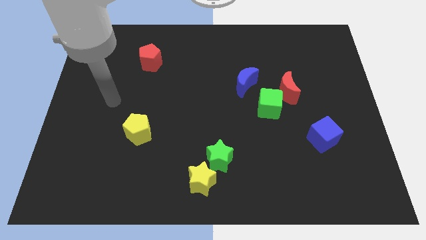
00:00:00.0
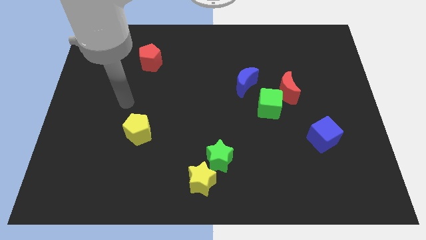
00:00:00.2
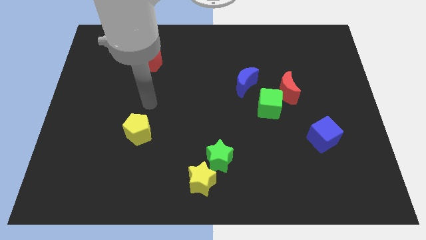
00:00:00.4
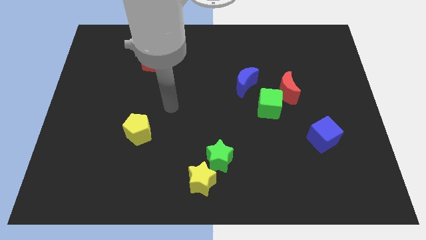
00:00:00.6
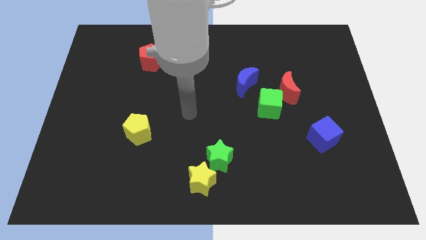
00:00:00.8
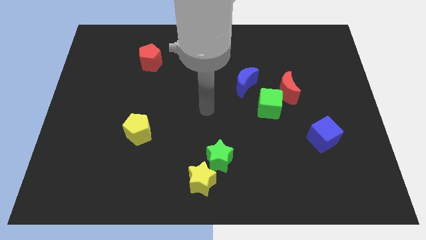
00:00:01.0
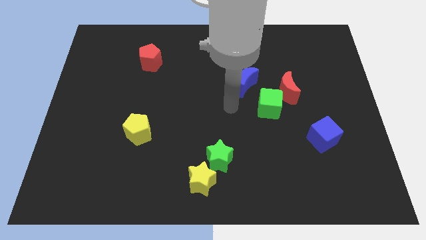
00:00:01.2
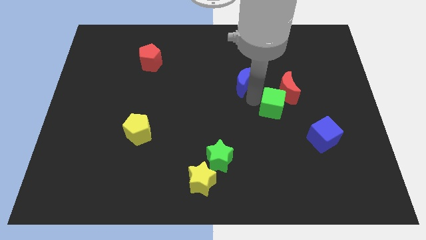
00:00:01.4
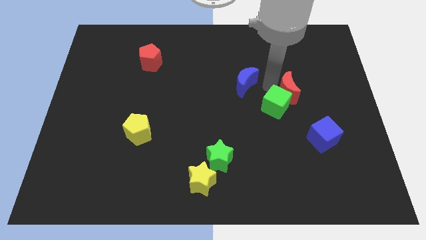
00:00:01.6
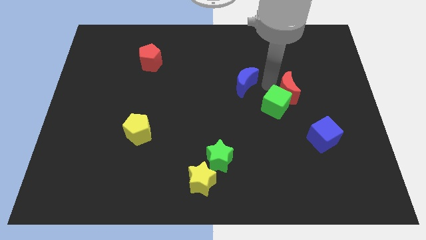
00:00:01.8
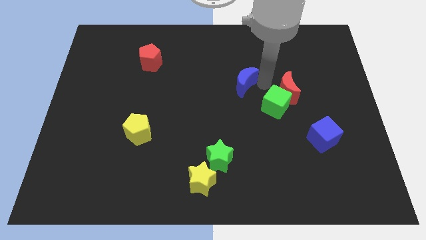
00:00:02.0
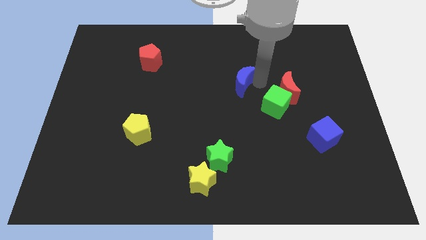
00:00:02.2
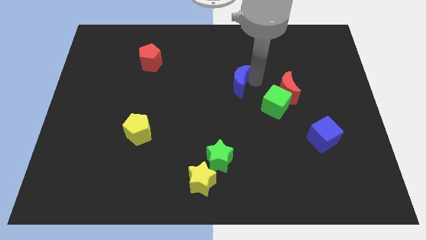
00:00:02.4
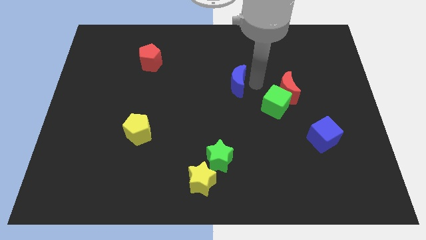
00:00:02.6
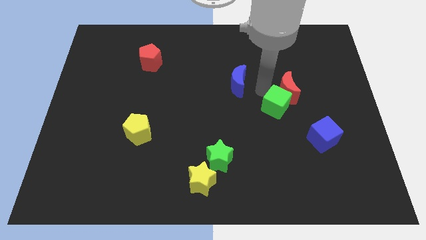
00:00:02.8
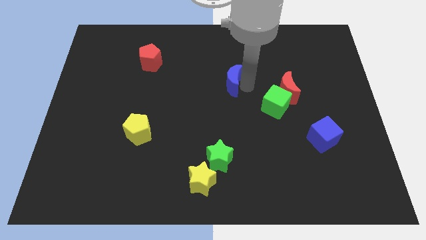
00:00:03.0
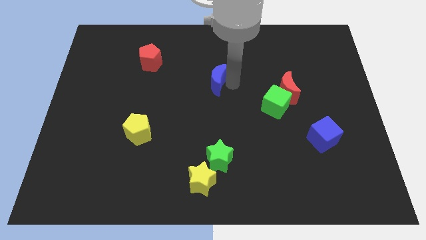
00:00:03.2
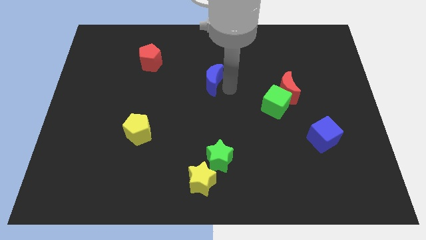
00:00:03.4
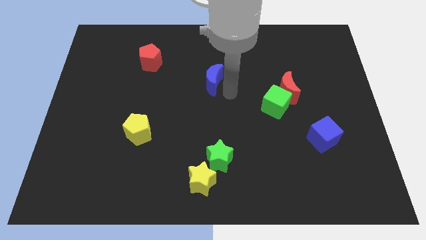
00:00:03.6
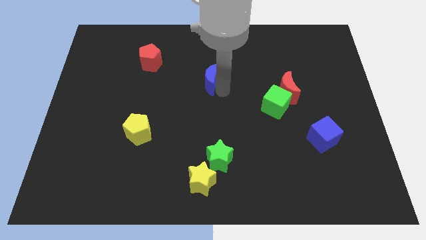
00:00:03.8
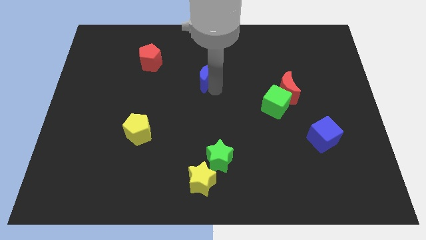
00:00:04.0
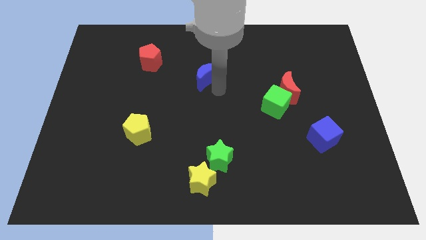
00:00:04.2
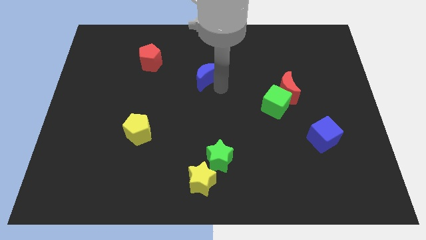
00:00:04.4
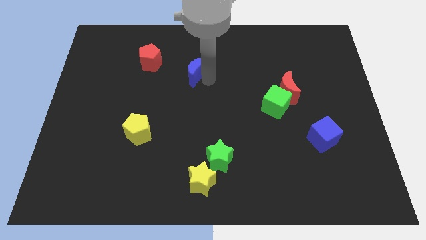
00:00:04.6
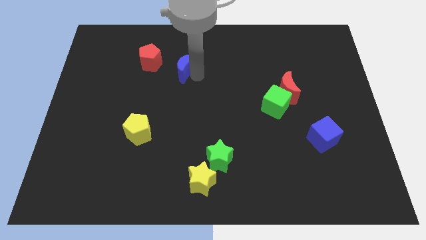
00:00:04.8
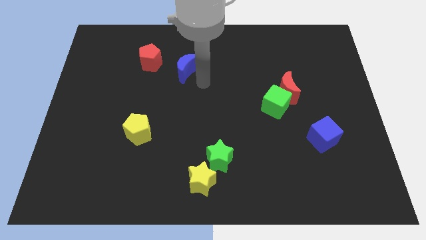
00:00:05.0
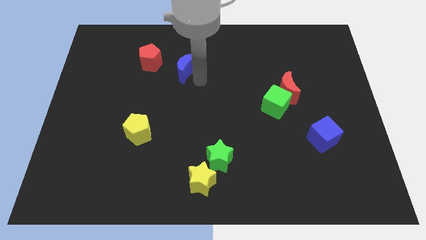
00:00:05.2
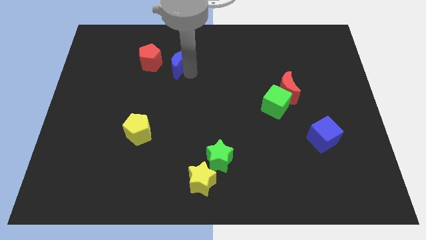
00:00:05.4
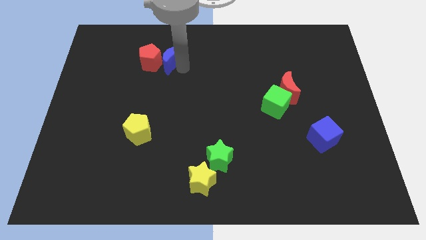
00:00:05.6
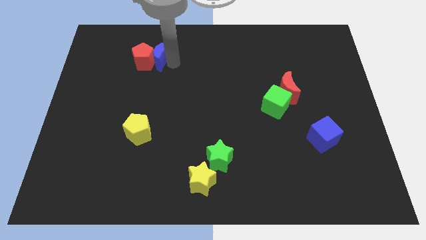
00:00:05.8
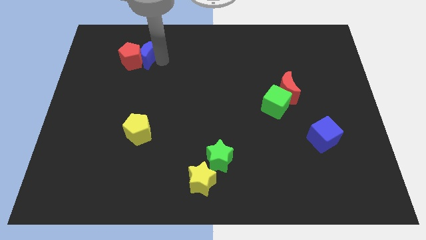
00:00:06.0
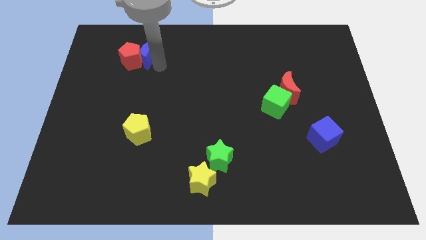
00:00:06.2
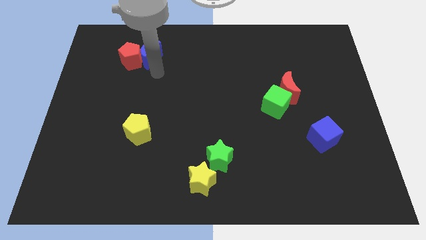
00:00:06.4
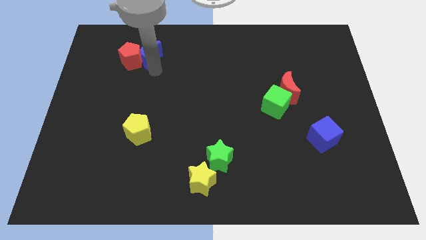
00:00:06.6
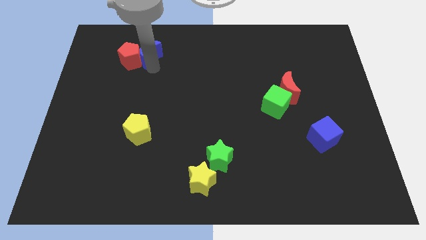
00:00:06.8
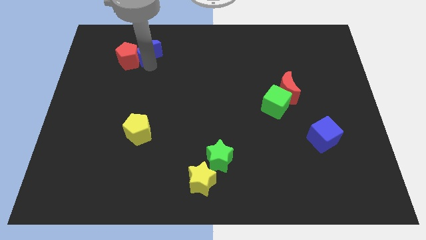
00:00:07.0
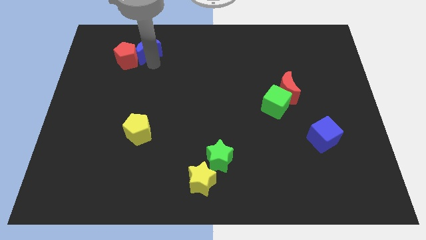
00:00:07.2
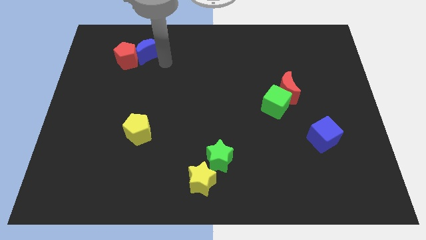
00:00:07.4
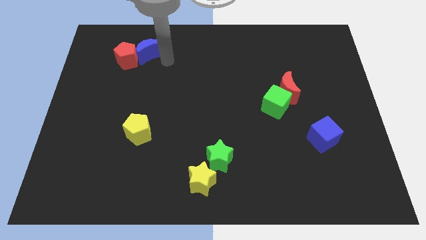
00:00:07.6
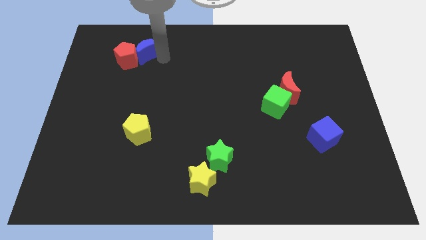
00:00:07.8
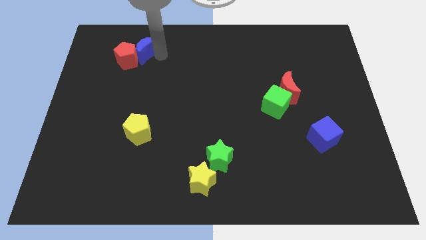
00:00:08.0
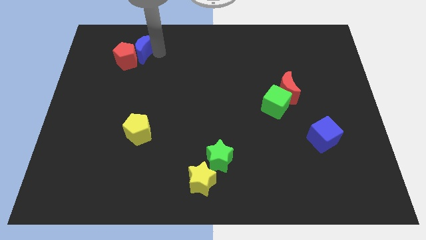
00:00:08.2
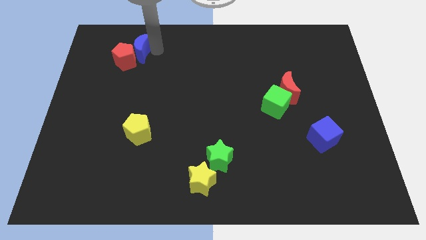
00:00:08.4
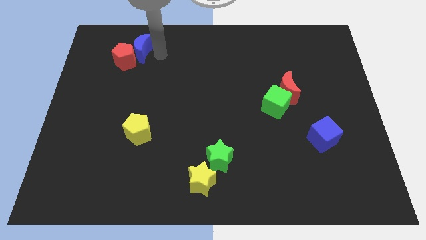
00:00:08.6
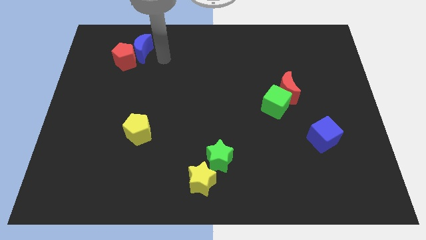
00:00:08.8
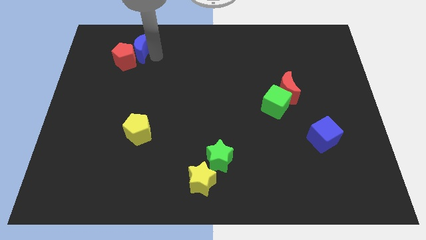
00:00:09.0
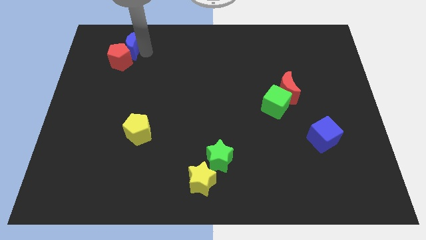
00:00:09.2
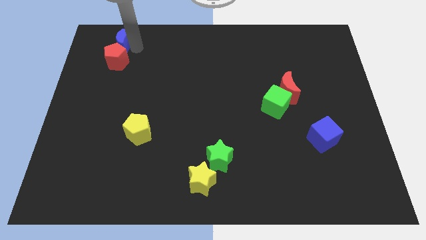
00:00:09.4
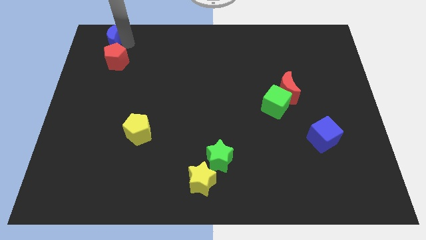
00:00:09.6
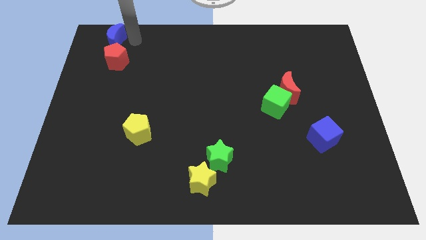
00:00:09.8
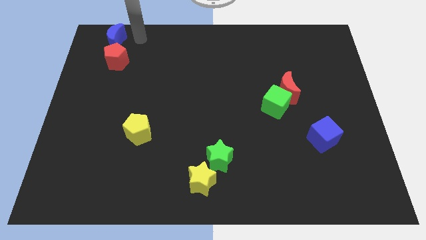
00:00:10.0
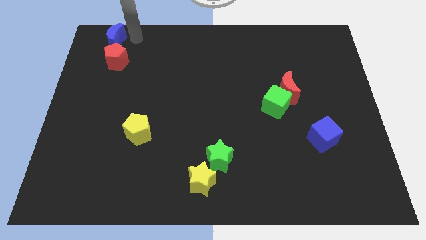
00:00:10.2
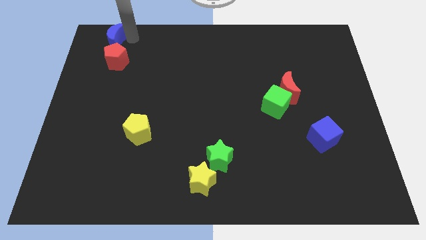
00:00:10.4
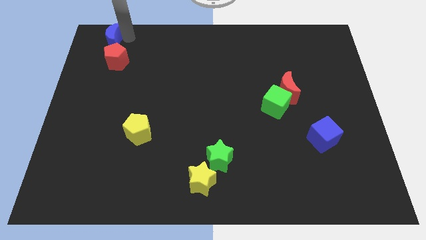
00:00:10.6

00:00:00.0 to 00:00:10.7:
move the blue moon to the top left

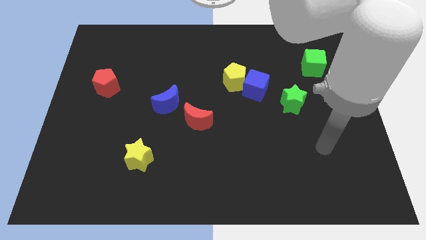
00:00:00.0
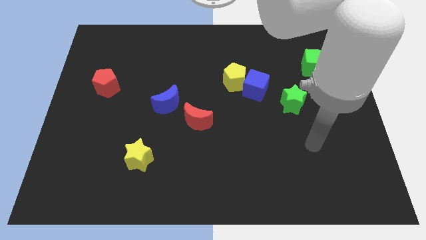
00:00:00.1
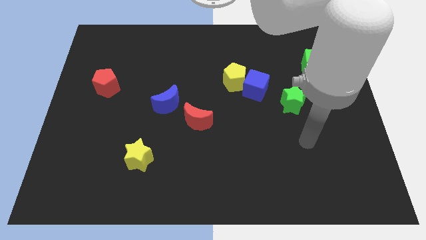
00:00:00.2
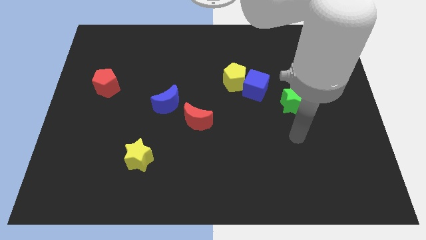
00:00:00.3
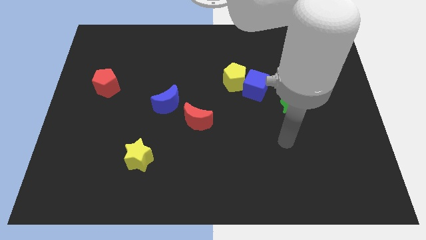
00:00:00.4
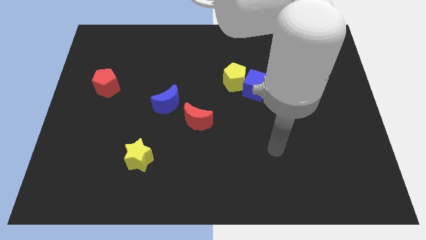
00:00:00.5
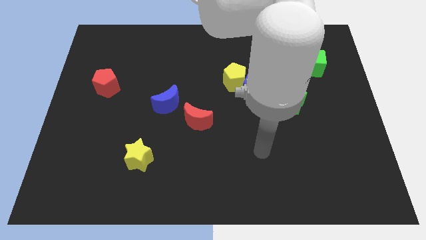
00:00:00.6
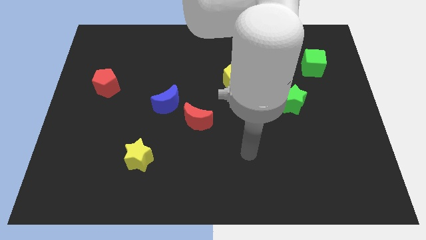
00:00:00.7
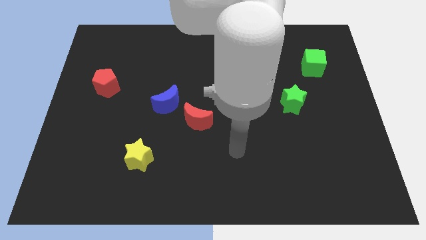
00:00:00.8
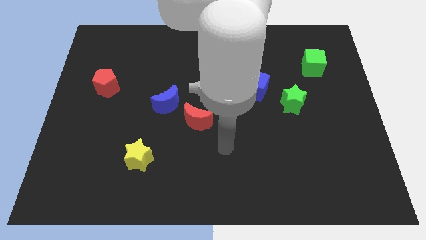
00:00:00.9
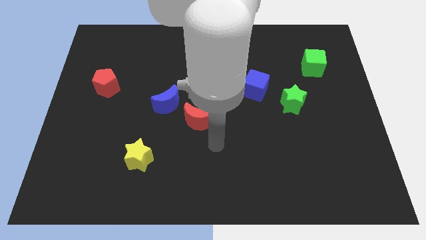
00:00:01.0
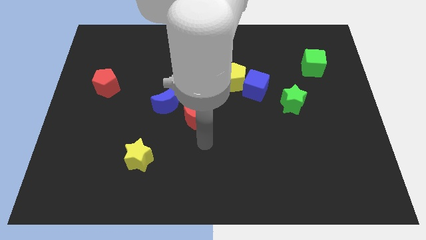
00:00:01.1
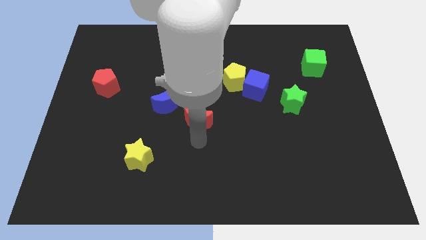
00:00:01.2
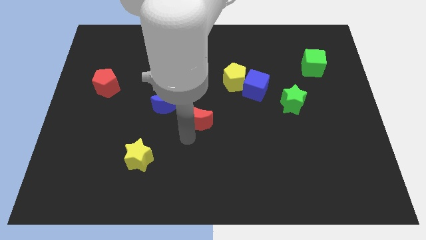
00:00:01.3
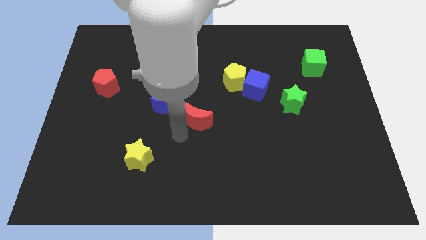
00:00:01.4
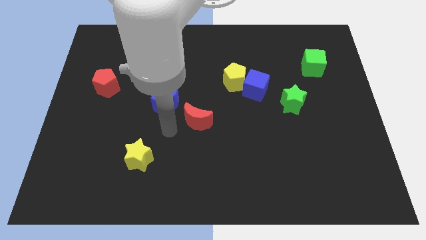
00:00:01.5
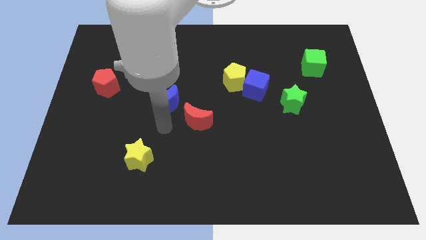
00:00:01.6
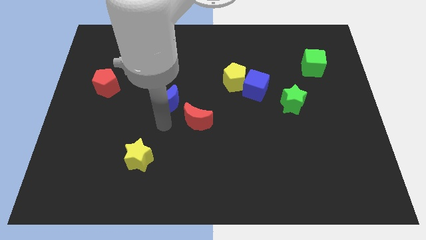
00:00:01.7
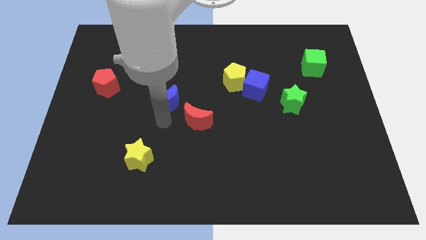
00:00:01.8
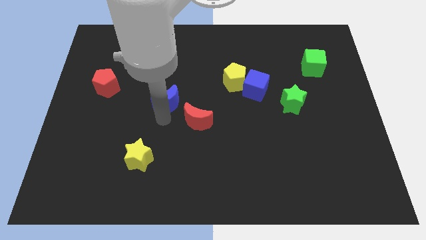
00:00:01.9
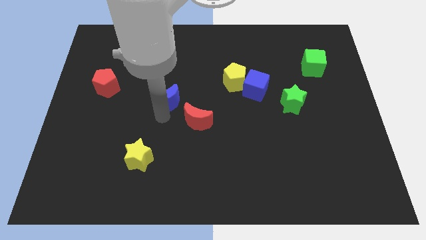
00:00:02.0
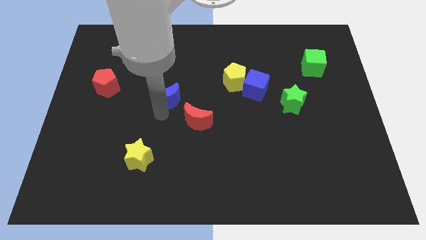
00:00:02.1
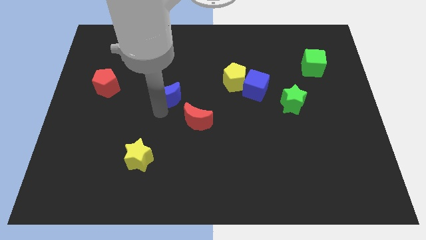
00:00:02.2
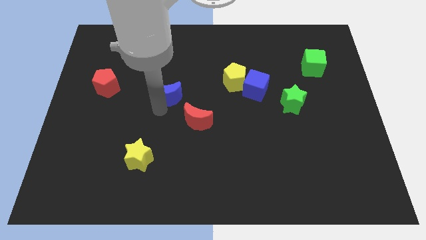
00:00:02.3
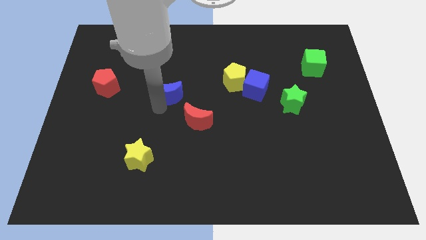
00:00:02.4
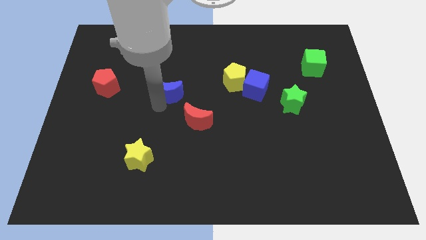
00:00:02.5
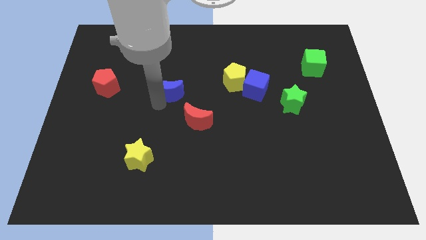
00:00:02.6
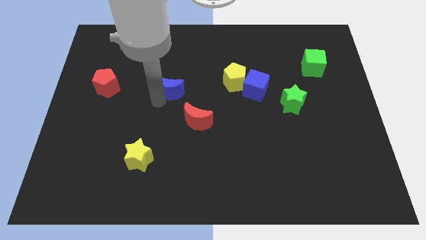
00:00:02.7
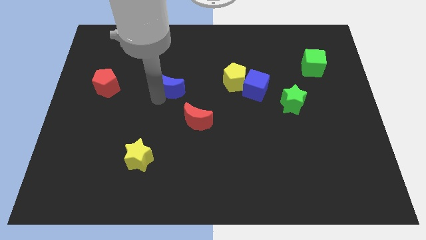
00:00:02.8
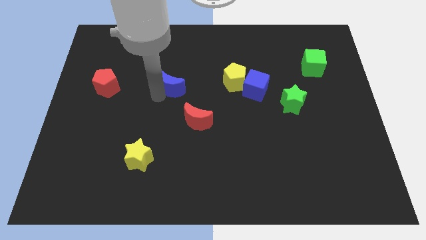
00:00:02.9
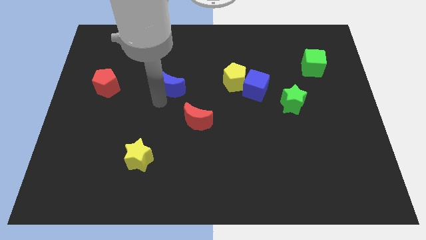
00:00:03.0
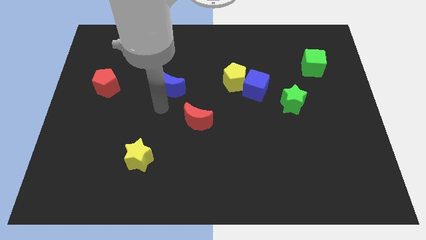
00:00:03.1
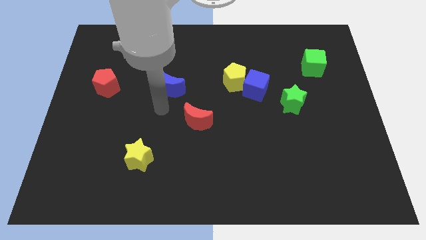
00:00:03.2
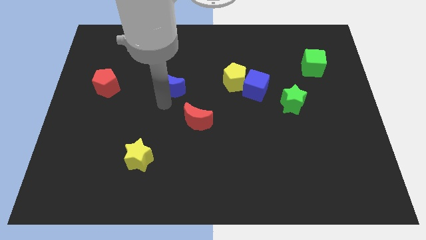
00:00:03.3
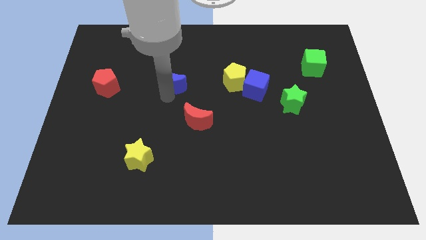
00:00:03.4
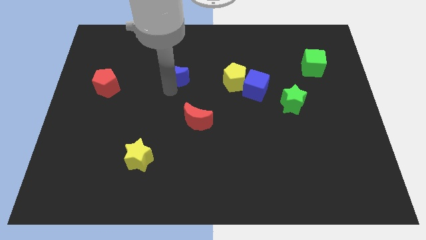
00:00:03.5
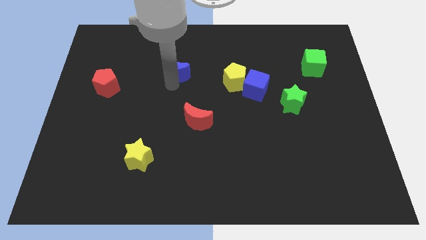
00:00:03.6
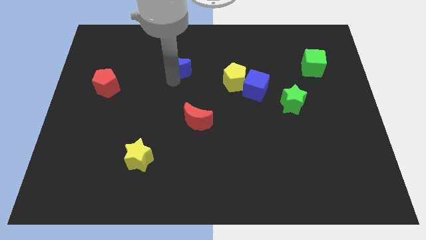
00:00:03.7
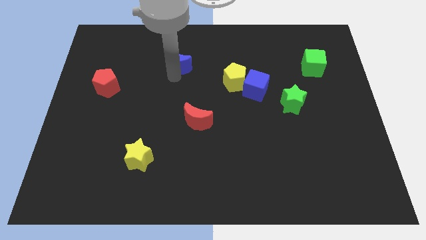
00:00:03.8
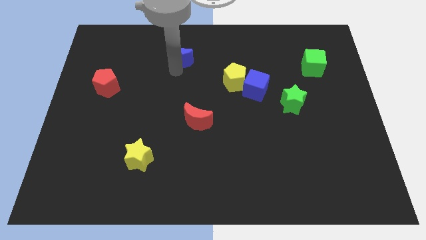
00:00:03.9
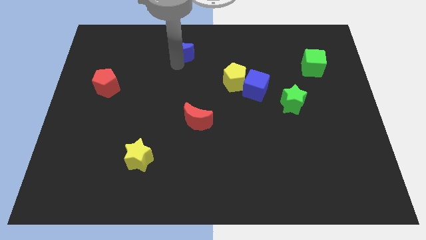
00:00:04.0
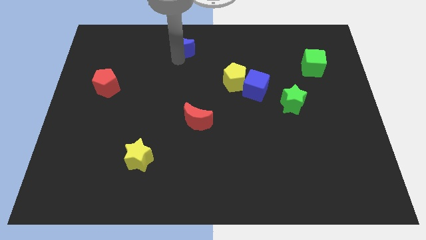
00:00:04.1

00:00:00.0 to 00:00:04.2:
slide the blue moon to the towards your base
